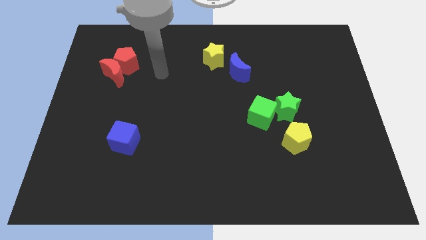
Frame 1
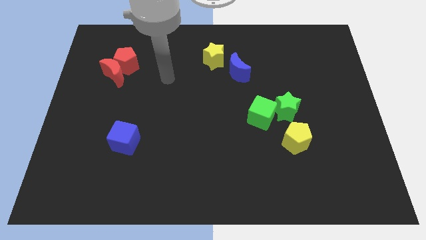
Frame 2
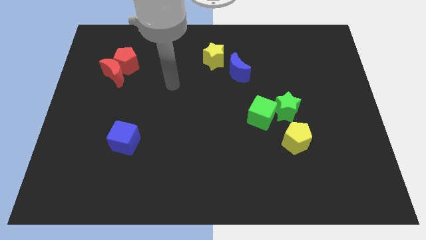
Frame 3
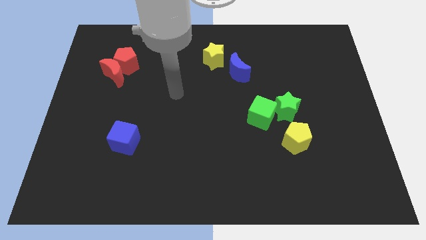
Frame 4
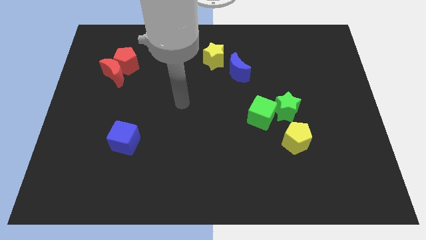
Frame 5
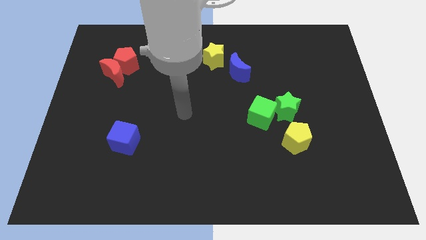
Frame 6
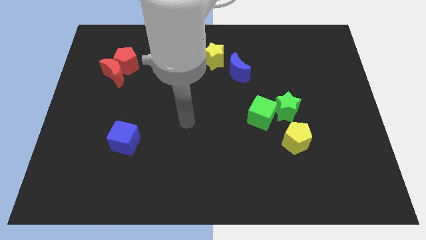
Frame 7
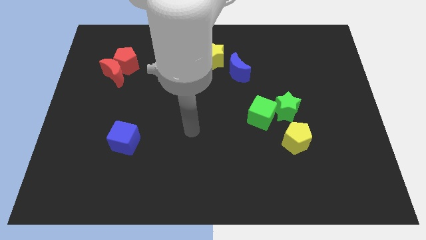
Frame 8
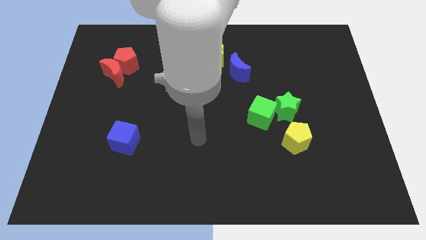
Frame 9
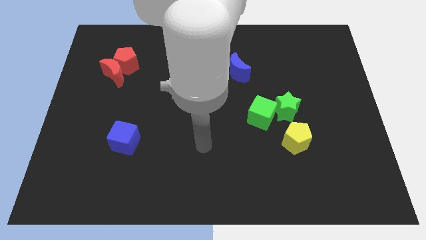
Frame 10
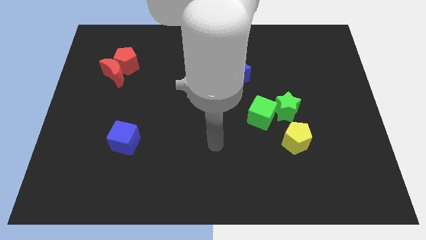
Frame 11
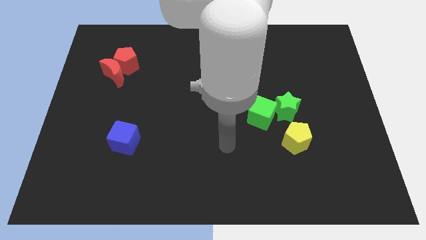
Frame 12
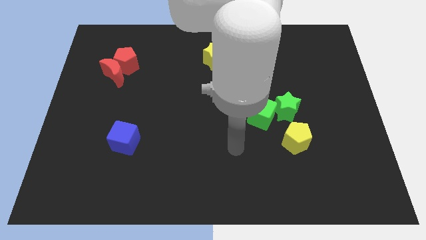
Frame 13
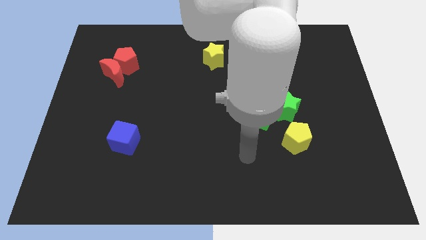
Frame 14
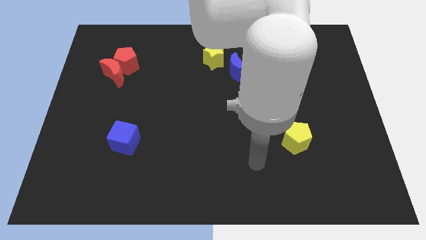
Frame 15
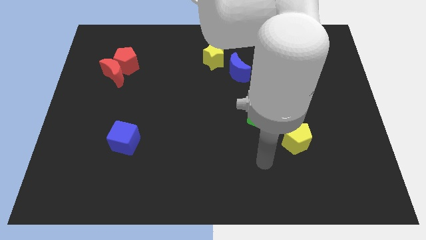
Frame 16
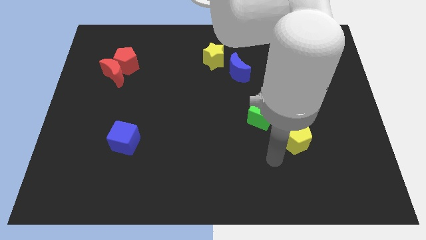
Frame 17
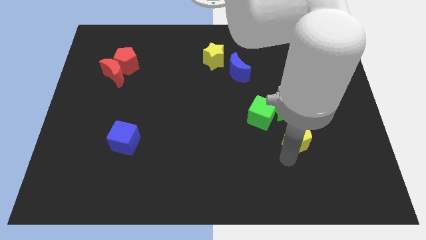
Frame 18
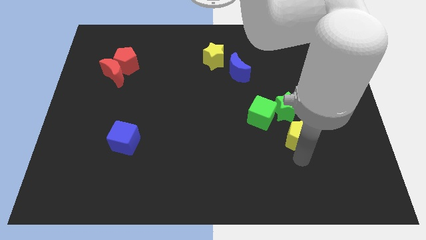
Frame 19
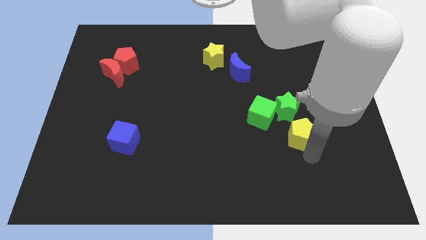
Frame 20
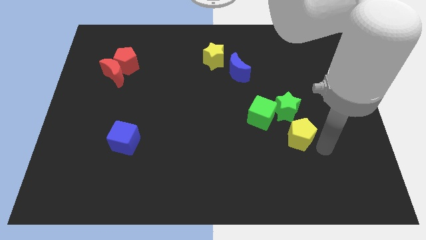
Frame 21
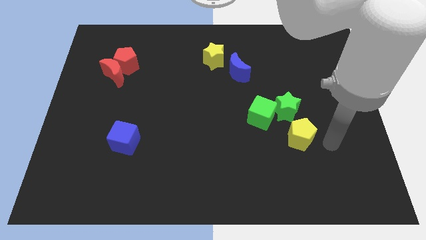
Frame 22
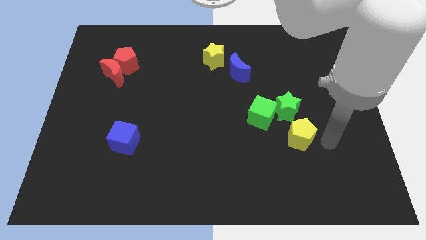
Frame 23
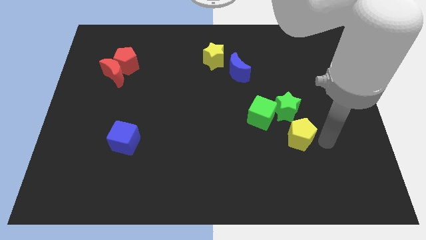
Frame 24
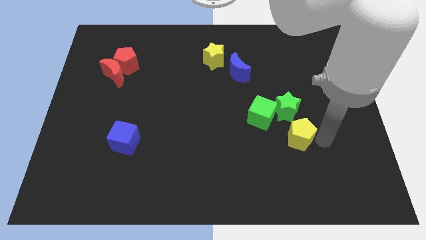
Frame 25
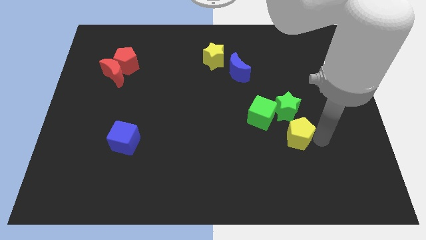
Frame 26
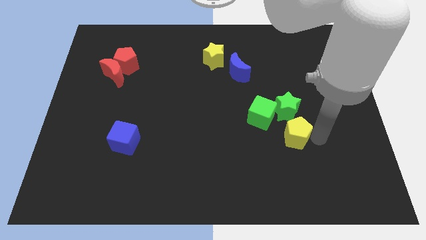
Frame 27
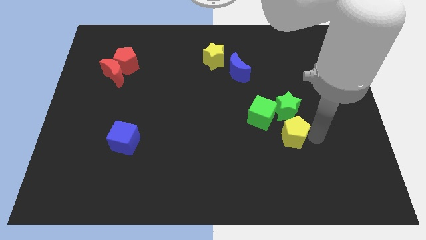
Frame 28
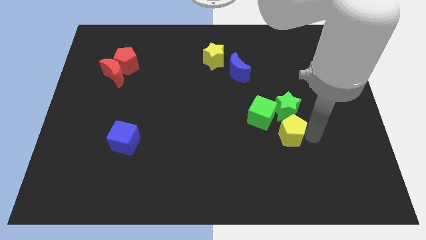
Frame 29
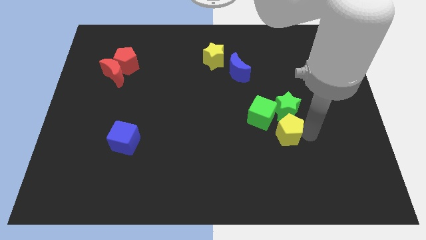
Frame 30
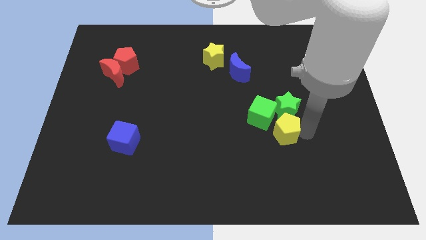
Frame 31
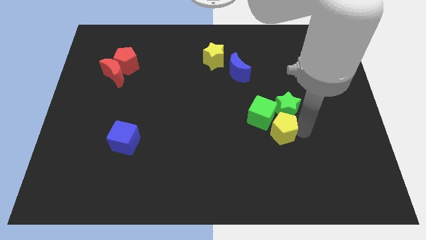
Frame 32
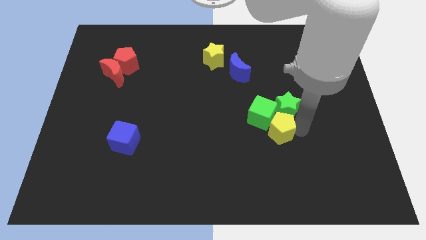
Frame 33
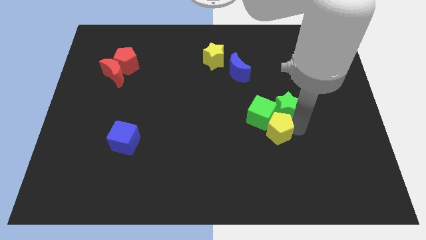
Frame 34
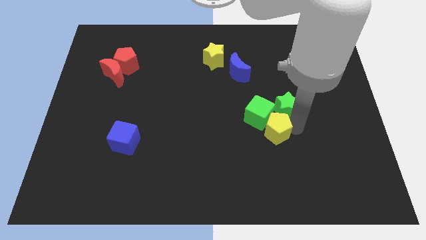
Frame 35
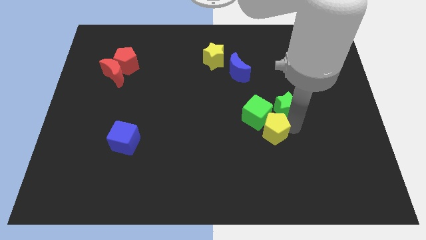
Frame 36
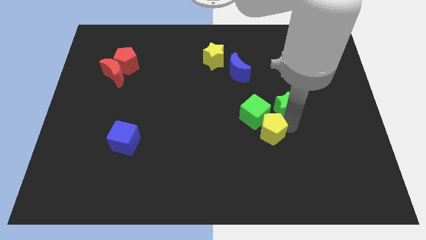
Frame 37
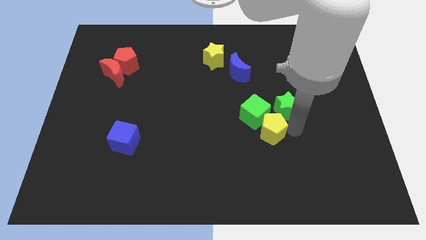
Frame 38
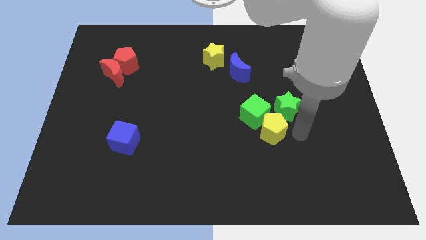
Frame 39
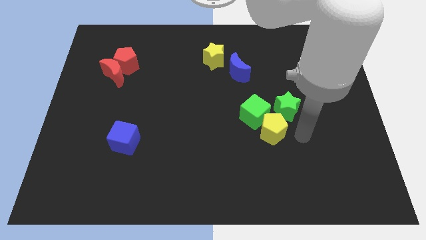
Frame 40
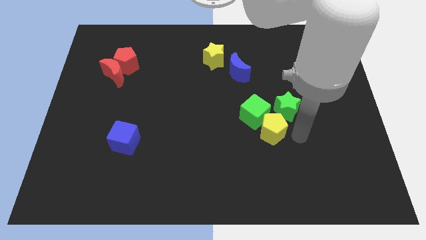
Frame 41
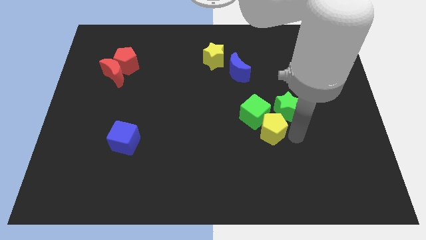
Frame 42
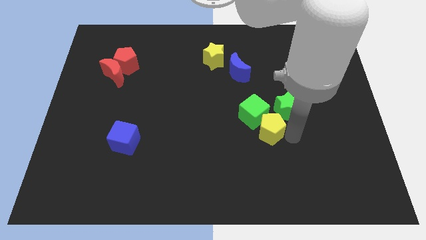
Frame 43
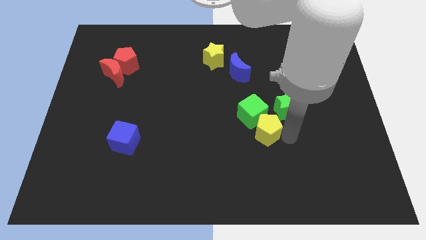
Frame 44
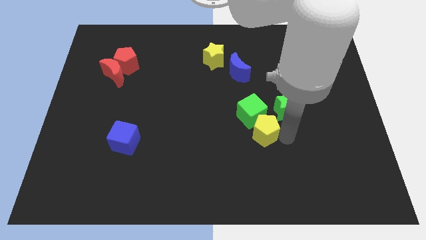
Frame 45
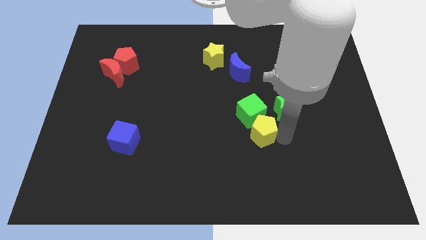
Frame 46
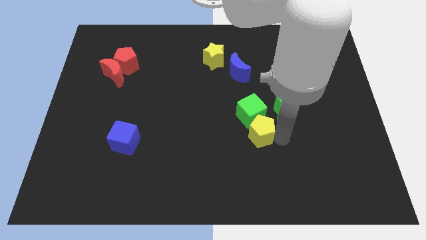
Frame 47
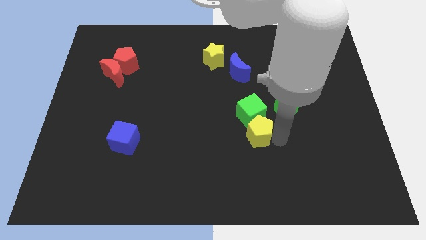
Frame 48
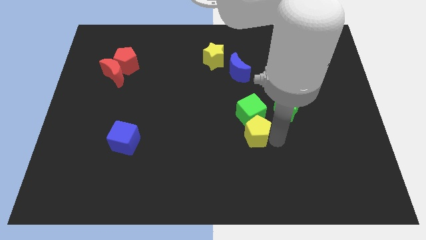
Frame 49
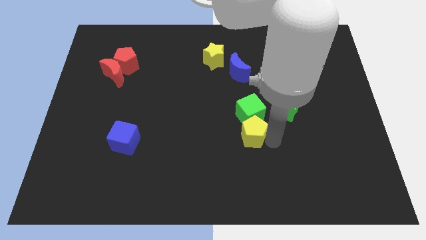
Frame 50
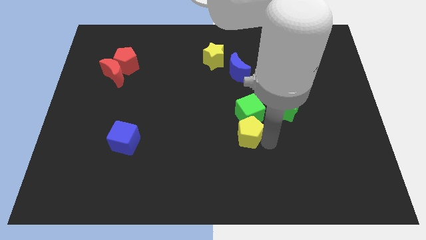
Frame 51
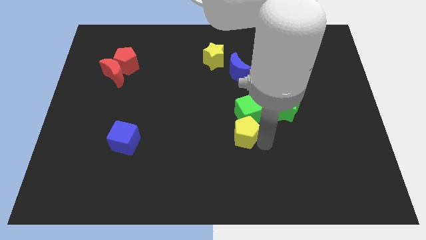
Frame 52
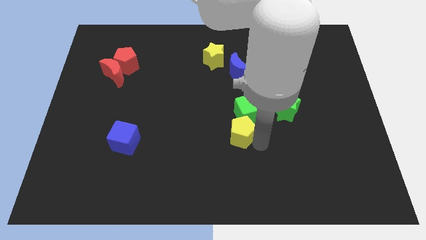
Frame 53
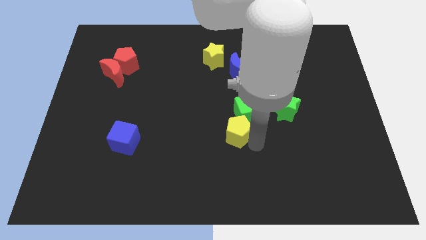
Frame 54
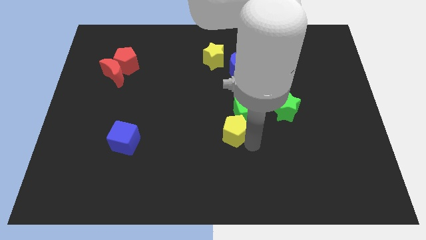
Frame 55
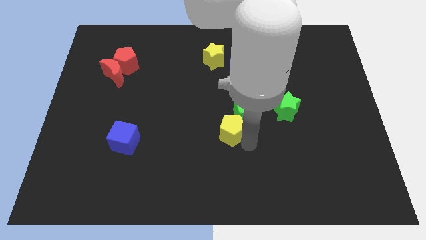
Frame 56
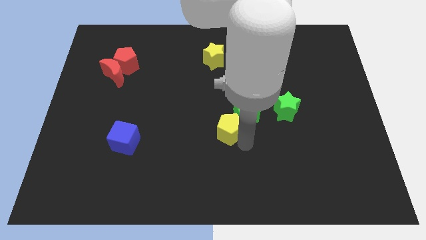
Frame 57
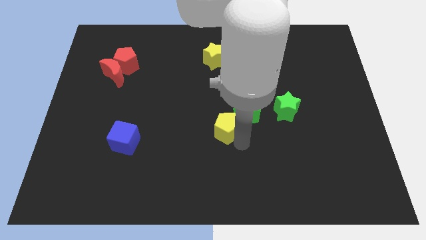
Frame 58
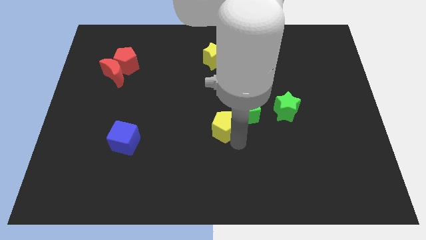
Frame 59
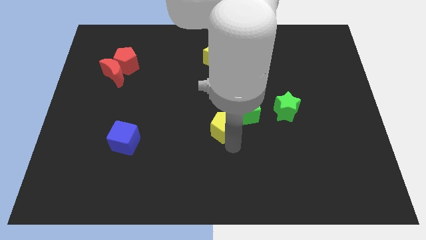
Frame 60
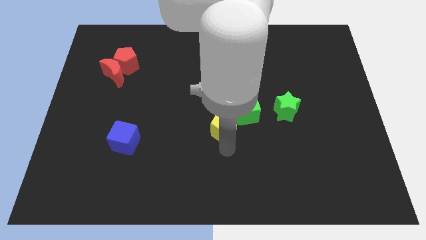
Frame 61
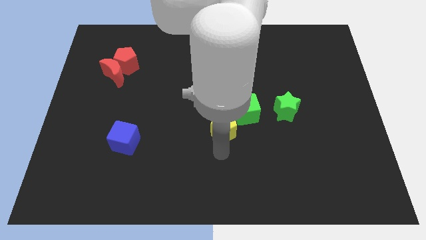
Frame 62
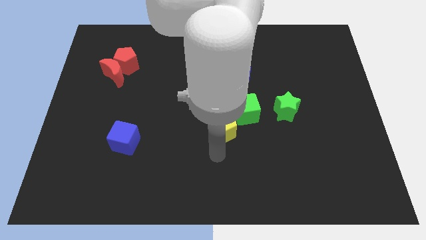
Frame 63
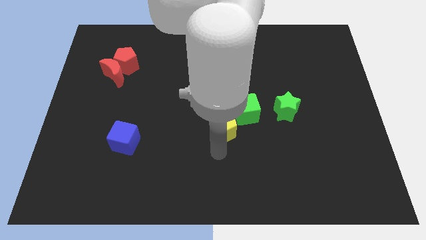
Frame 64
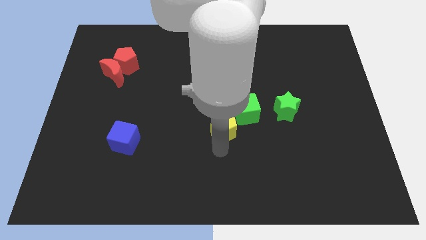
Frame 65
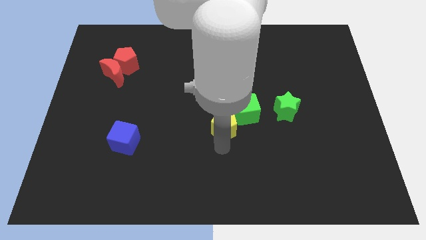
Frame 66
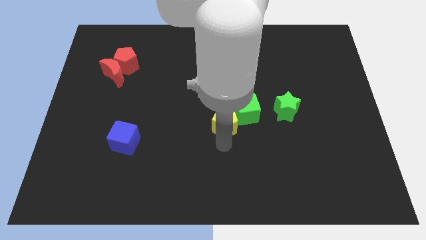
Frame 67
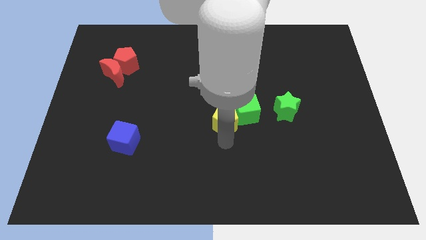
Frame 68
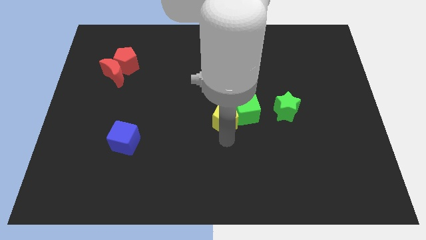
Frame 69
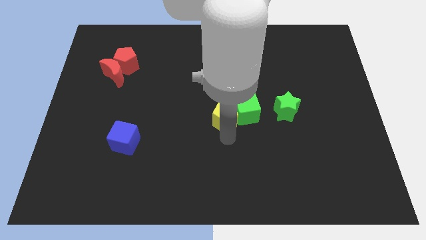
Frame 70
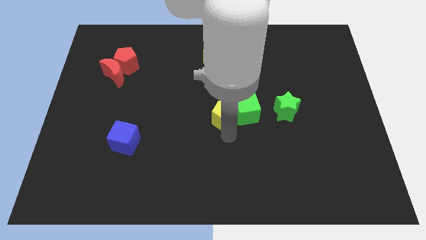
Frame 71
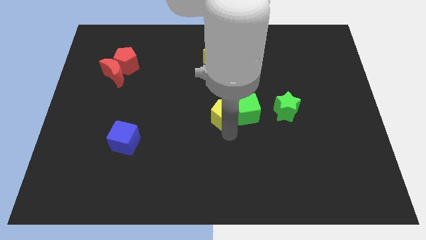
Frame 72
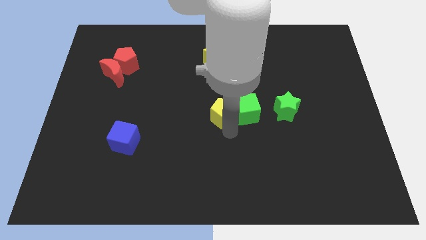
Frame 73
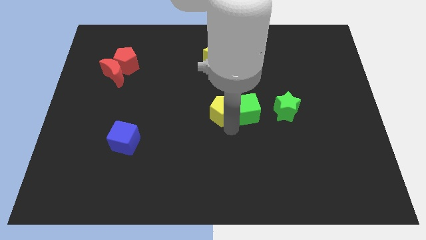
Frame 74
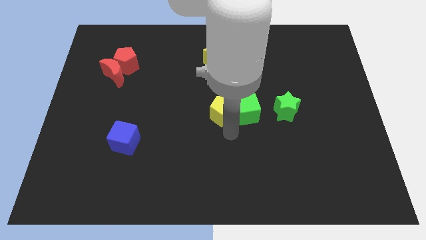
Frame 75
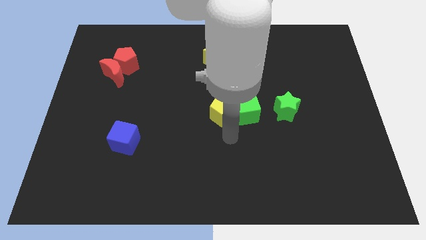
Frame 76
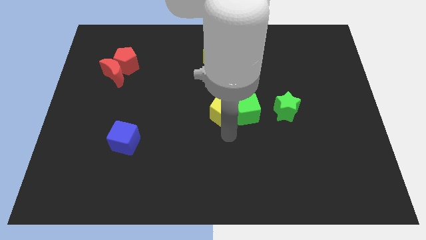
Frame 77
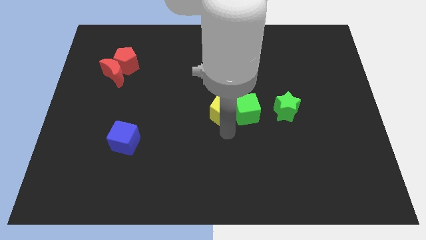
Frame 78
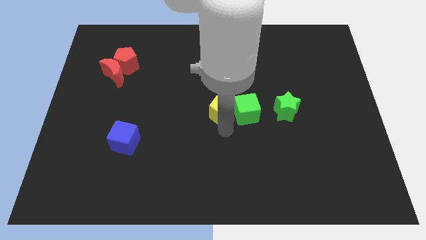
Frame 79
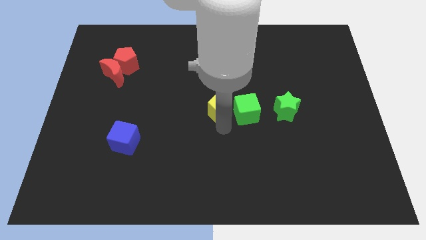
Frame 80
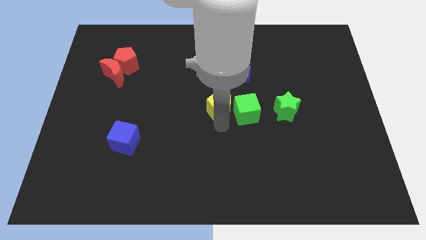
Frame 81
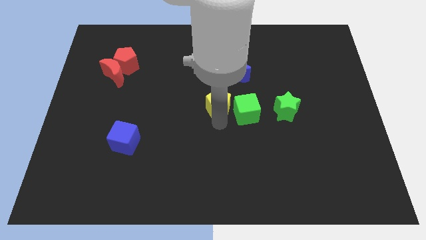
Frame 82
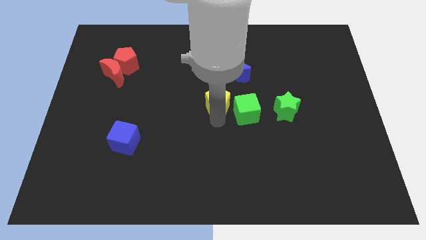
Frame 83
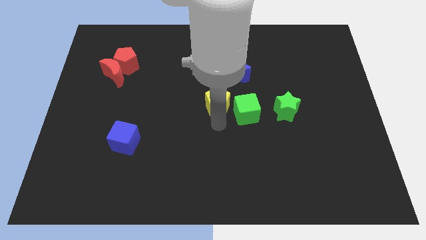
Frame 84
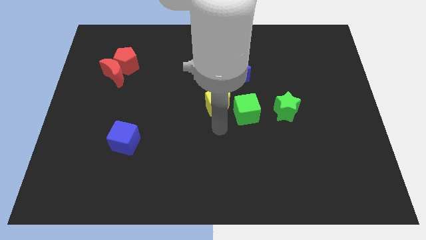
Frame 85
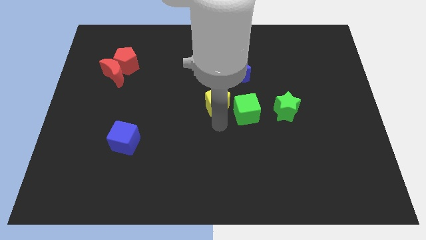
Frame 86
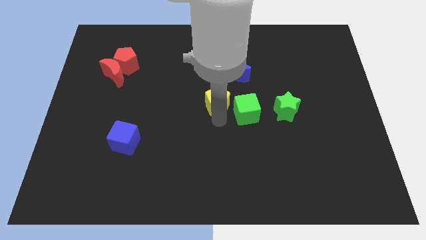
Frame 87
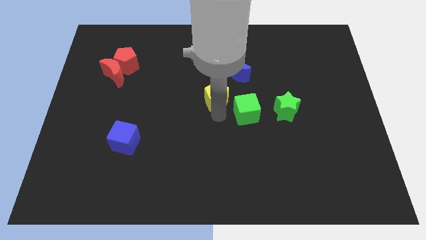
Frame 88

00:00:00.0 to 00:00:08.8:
slide the yellow pentagon up and then to the left
